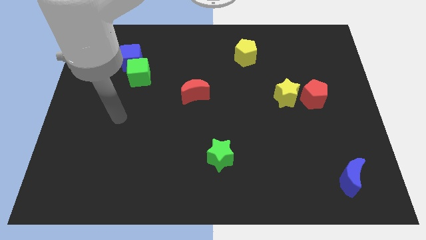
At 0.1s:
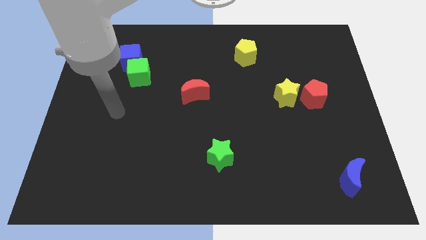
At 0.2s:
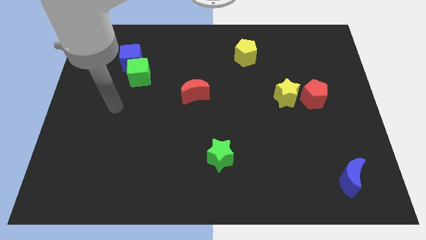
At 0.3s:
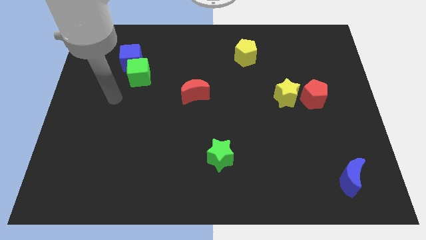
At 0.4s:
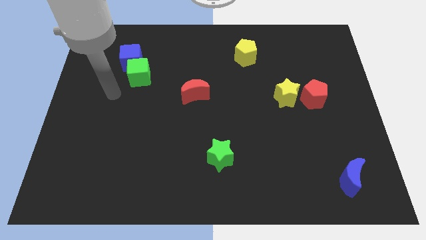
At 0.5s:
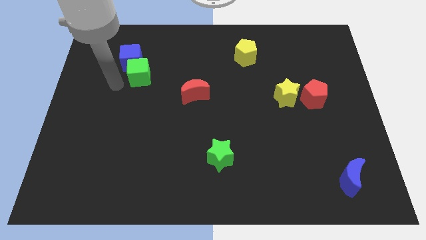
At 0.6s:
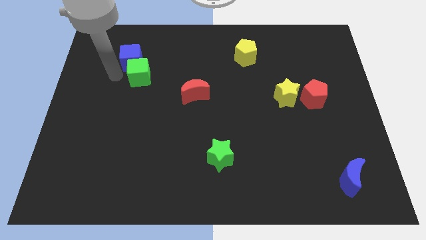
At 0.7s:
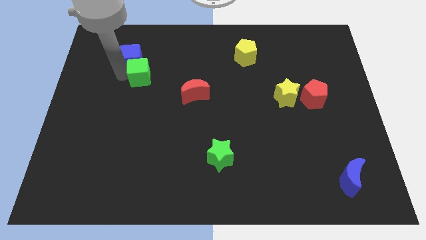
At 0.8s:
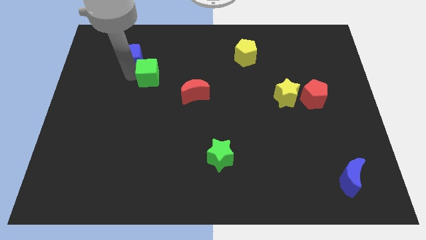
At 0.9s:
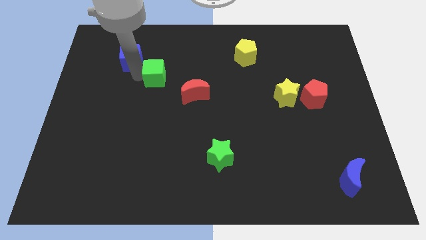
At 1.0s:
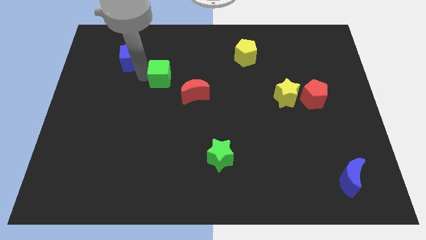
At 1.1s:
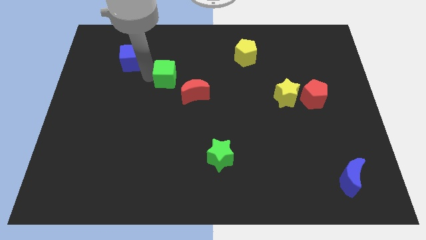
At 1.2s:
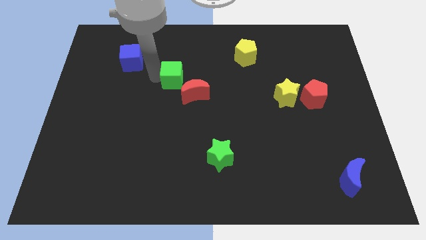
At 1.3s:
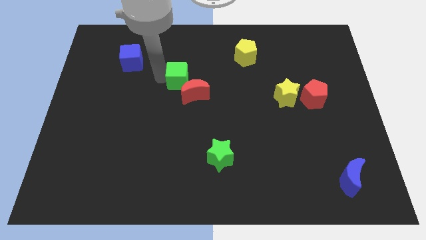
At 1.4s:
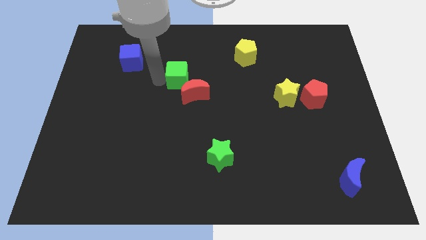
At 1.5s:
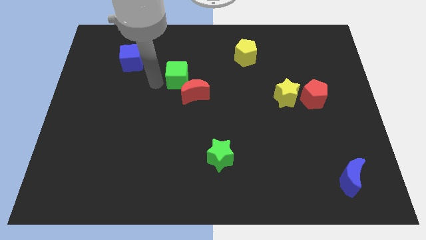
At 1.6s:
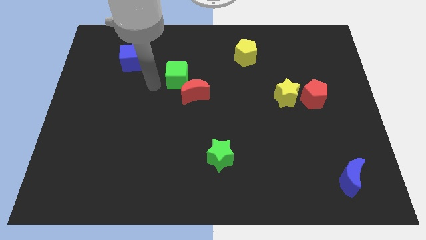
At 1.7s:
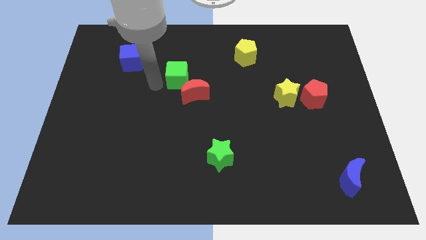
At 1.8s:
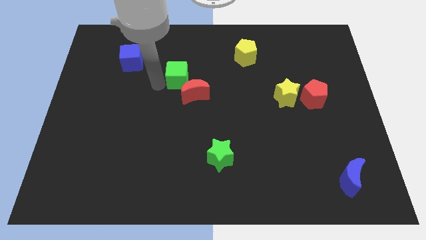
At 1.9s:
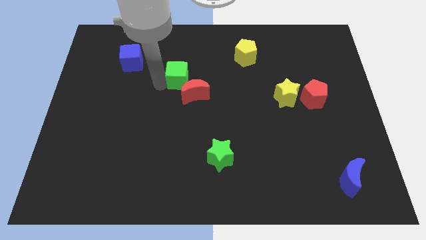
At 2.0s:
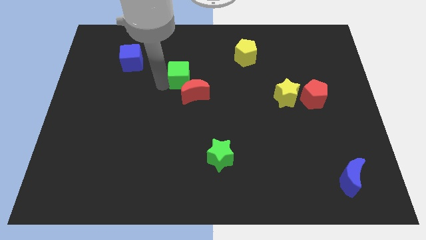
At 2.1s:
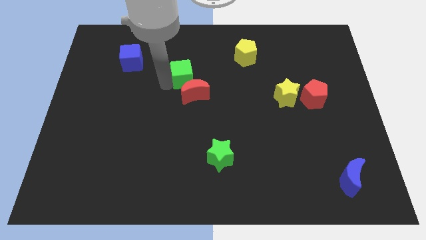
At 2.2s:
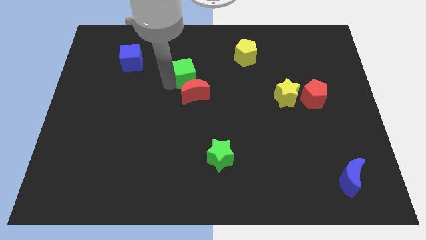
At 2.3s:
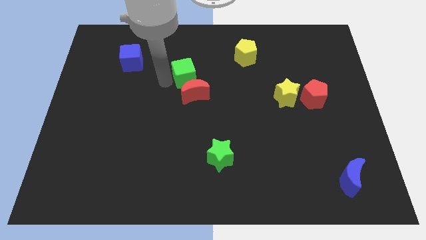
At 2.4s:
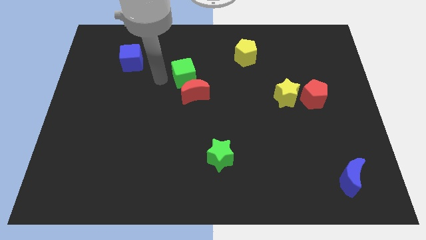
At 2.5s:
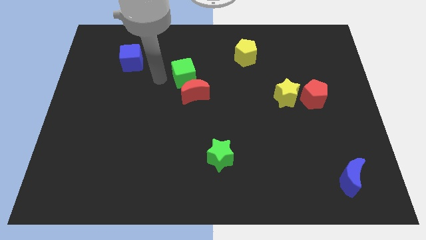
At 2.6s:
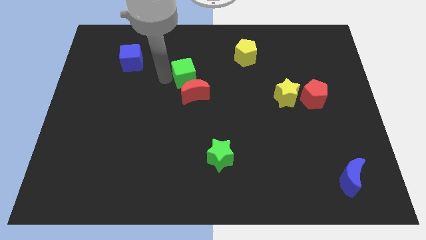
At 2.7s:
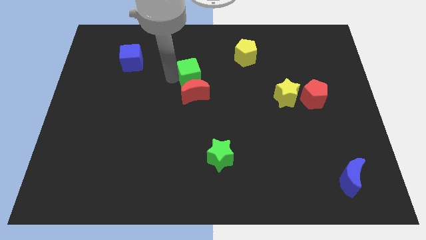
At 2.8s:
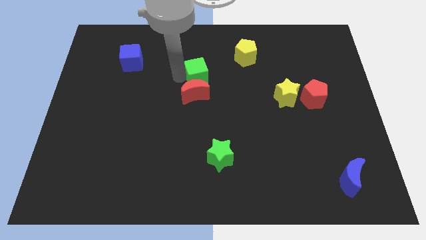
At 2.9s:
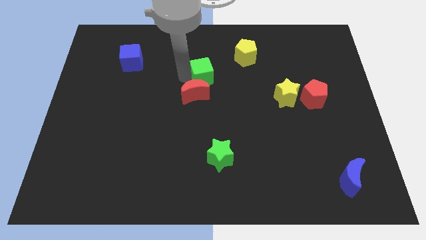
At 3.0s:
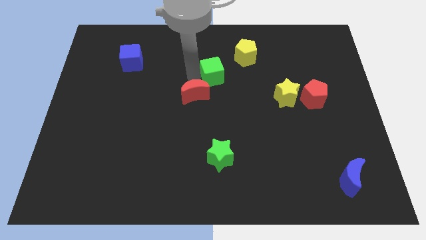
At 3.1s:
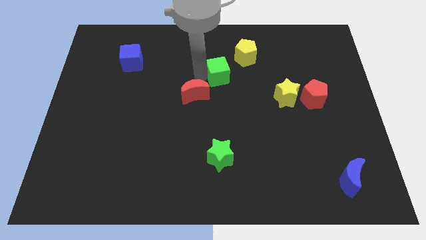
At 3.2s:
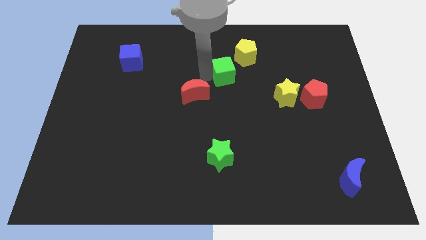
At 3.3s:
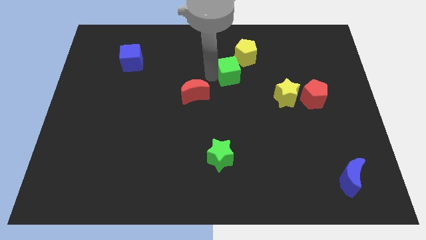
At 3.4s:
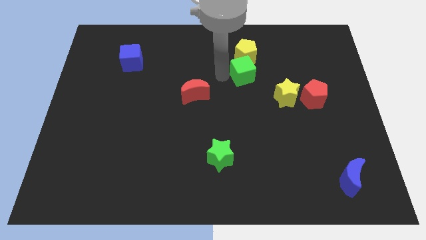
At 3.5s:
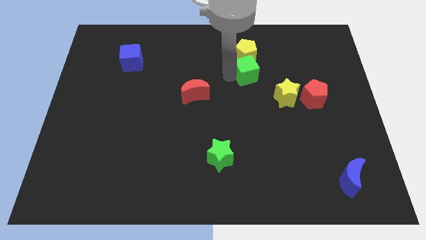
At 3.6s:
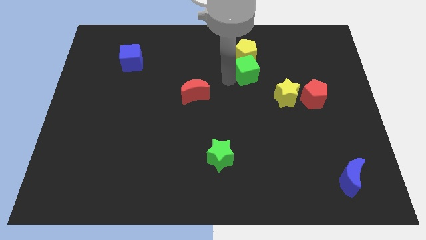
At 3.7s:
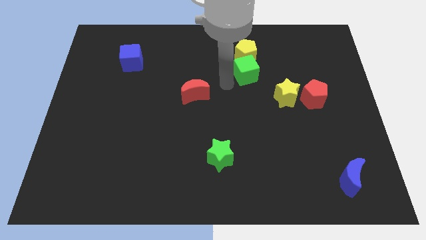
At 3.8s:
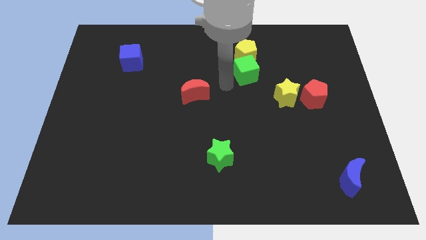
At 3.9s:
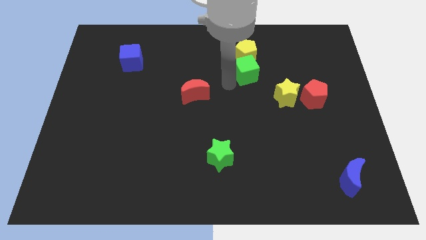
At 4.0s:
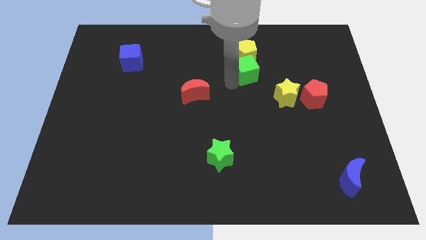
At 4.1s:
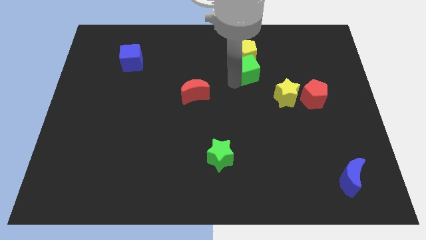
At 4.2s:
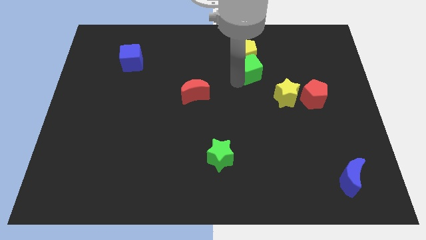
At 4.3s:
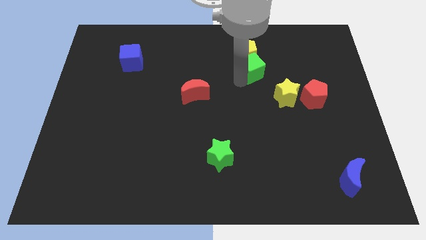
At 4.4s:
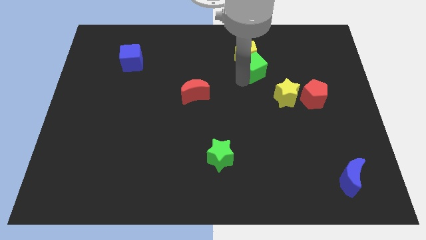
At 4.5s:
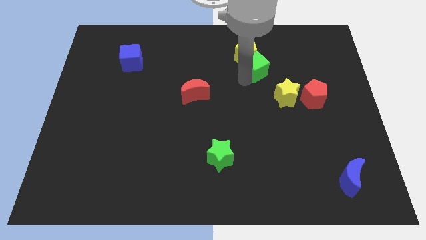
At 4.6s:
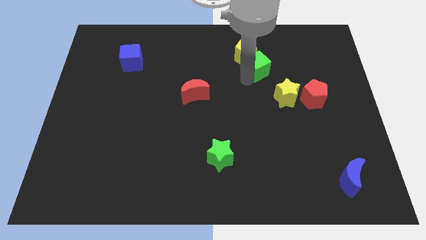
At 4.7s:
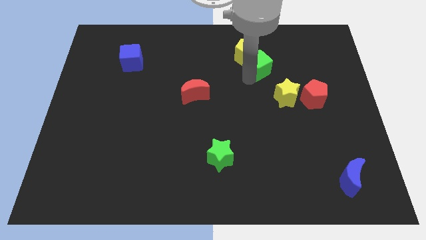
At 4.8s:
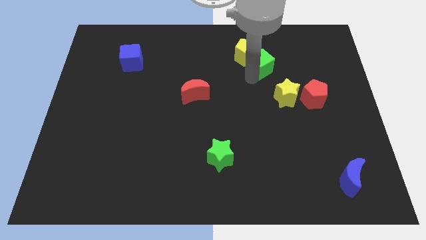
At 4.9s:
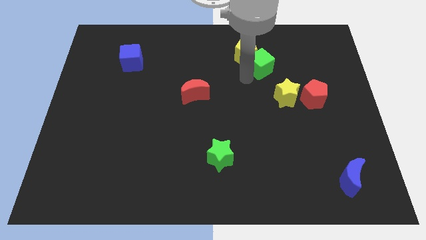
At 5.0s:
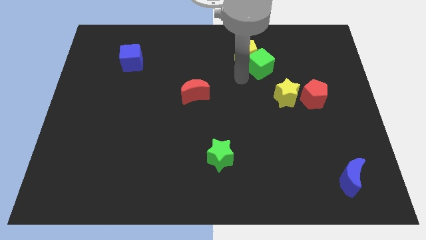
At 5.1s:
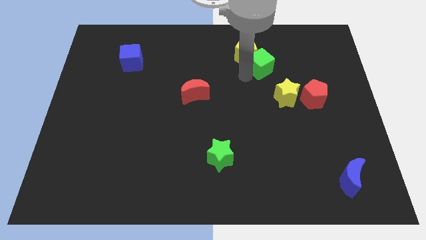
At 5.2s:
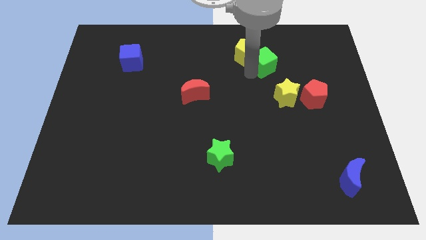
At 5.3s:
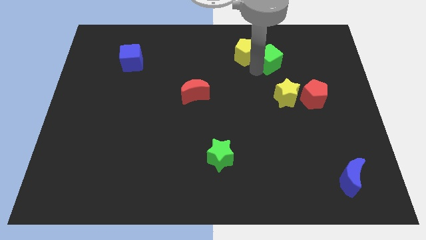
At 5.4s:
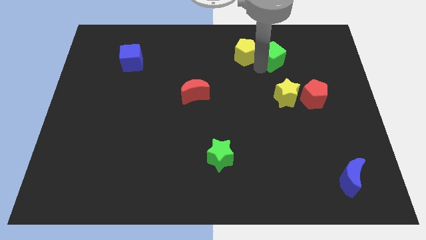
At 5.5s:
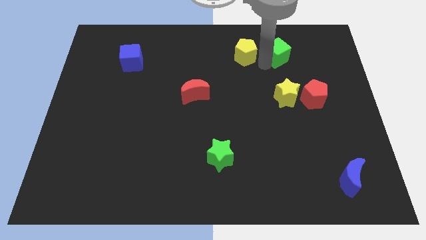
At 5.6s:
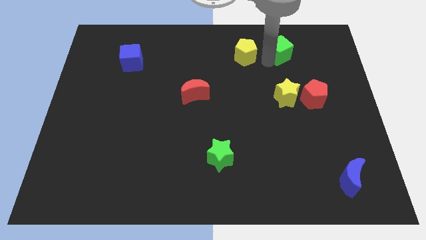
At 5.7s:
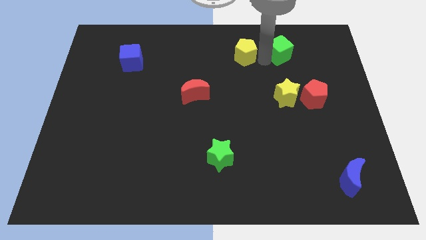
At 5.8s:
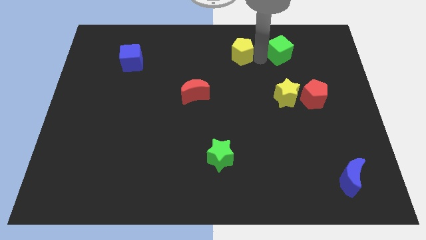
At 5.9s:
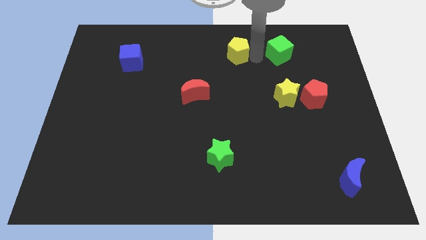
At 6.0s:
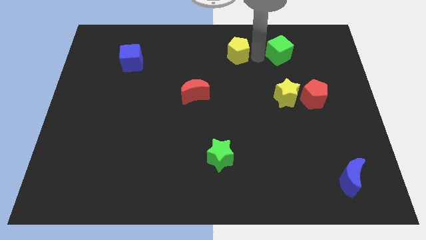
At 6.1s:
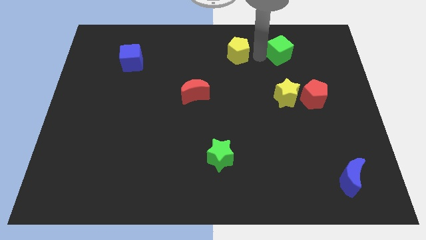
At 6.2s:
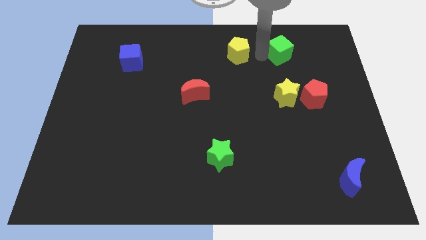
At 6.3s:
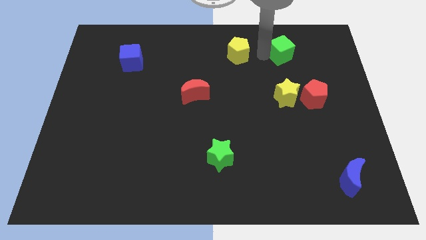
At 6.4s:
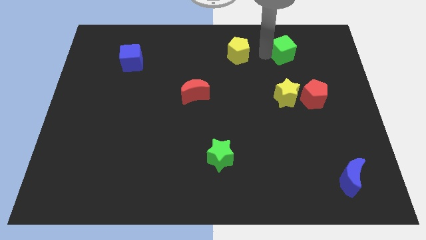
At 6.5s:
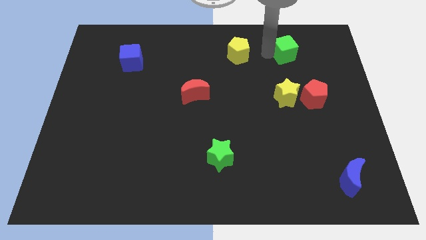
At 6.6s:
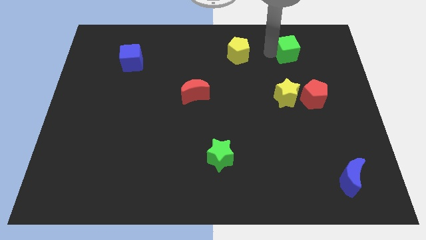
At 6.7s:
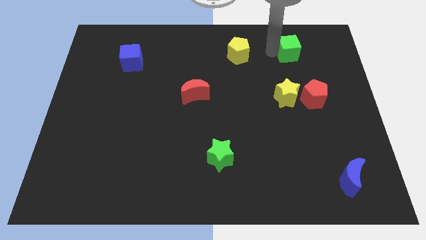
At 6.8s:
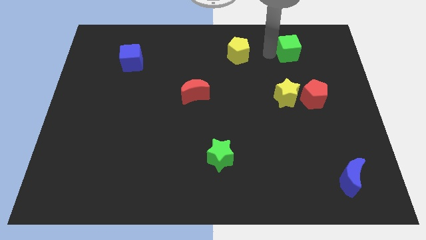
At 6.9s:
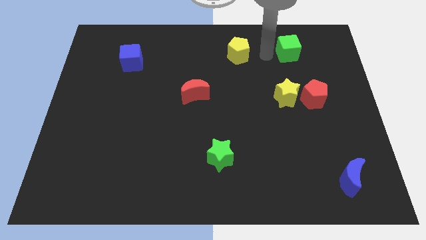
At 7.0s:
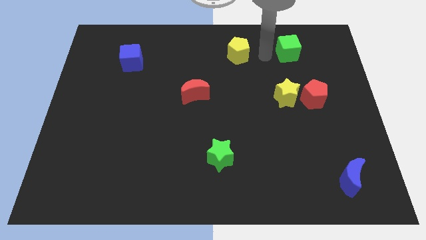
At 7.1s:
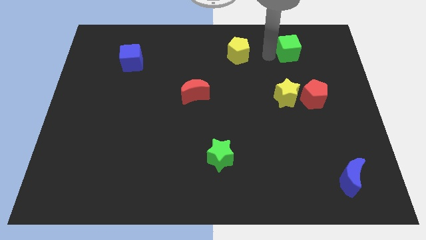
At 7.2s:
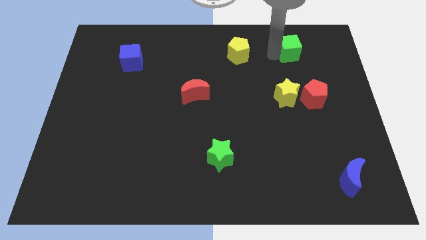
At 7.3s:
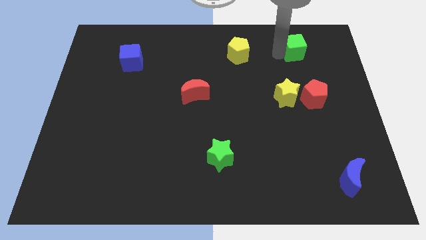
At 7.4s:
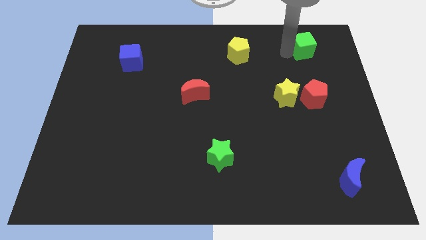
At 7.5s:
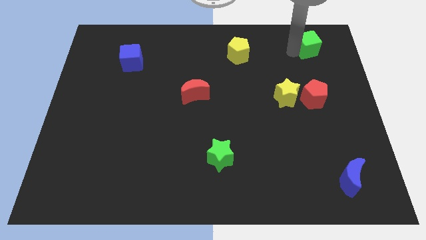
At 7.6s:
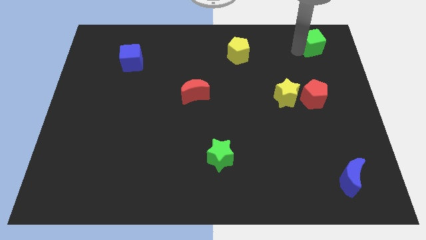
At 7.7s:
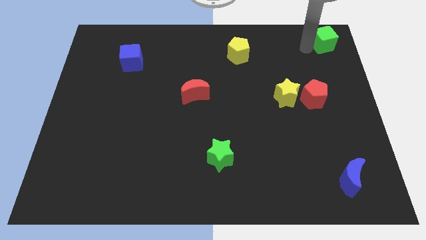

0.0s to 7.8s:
push the green cube to the top right
